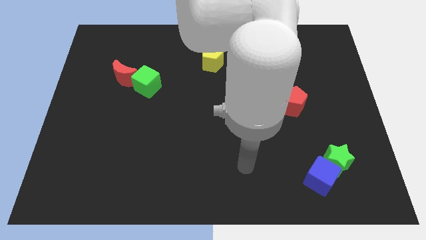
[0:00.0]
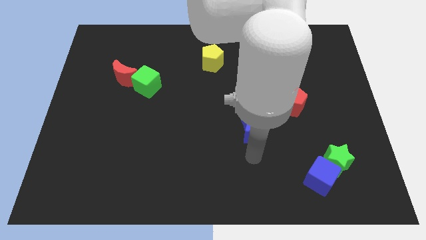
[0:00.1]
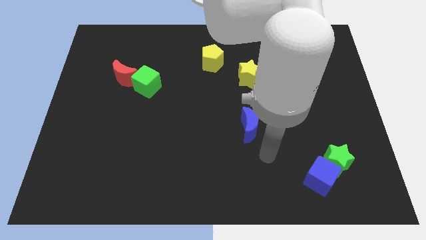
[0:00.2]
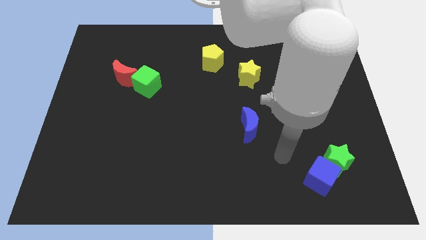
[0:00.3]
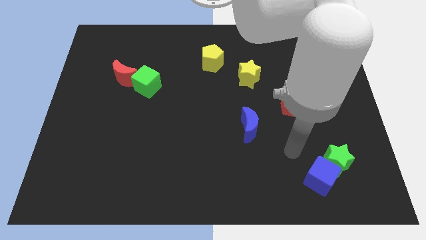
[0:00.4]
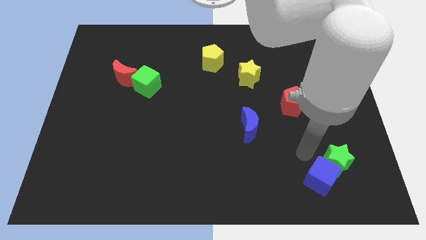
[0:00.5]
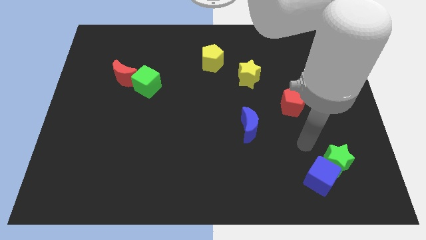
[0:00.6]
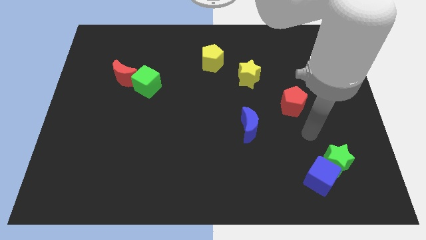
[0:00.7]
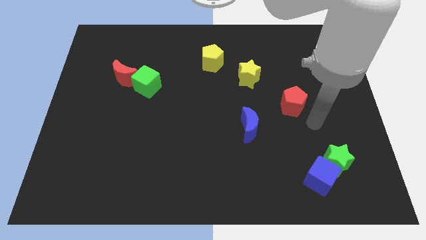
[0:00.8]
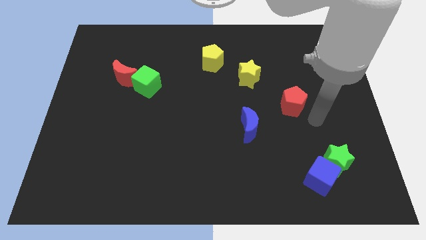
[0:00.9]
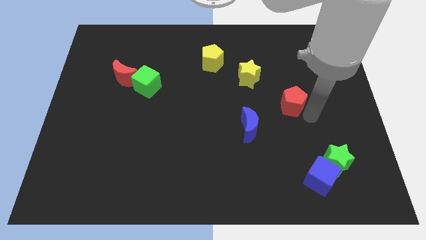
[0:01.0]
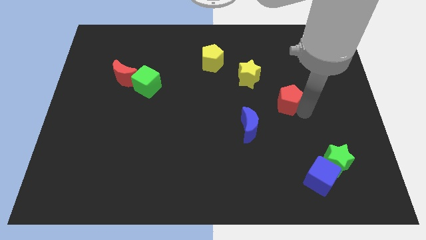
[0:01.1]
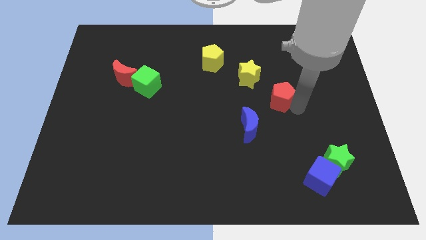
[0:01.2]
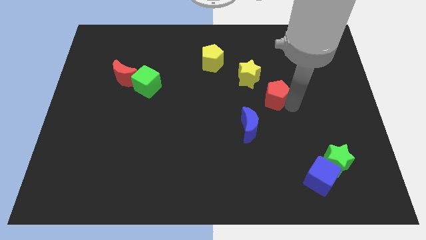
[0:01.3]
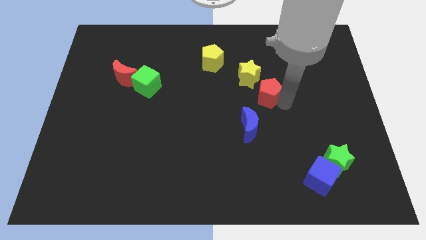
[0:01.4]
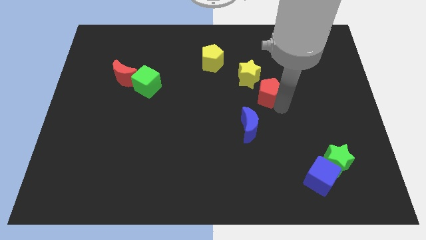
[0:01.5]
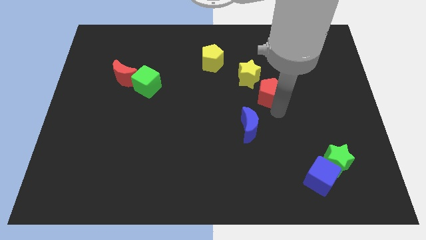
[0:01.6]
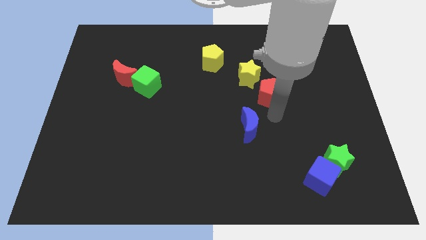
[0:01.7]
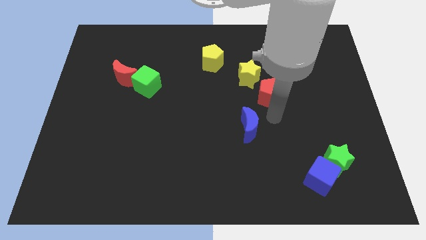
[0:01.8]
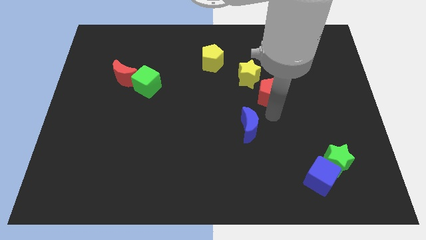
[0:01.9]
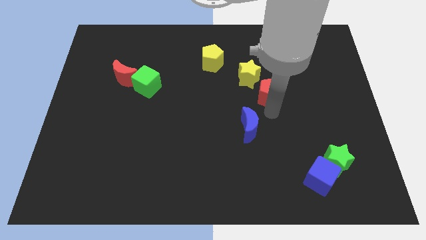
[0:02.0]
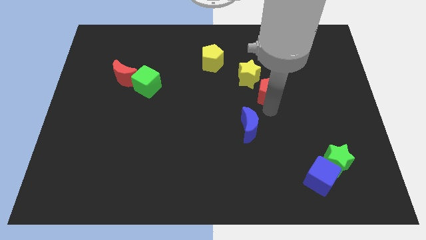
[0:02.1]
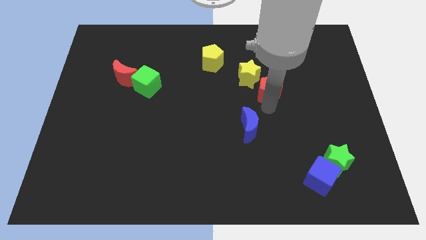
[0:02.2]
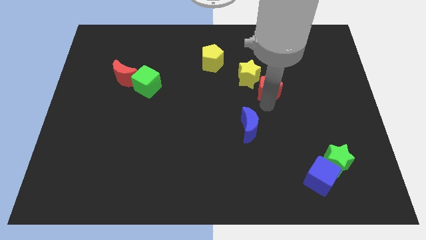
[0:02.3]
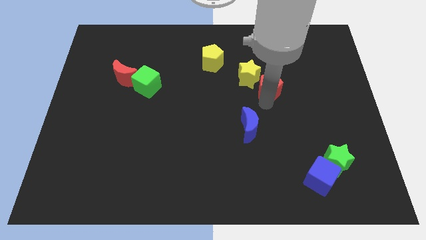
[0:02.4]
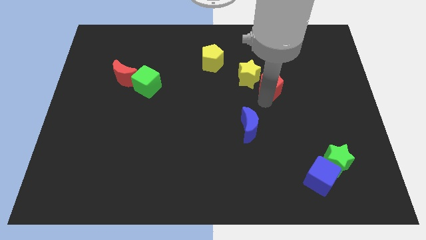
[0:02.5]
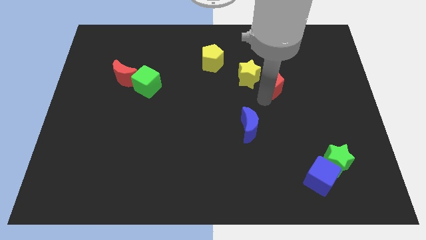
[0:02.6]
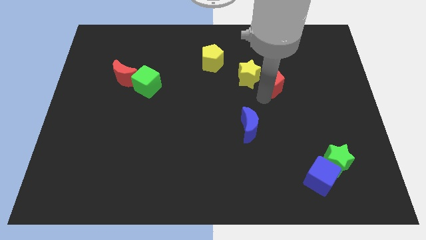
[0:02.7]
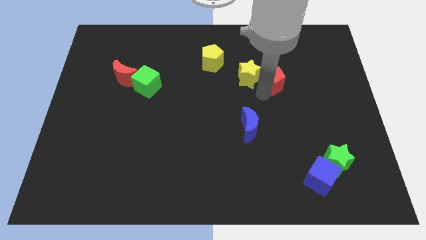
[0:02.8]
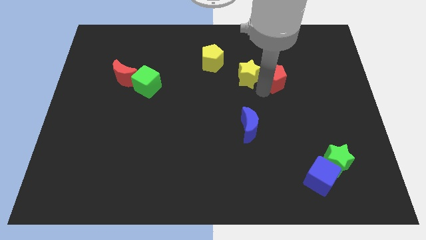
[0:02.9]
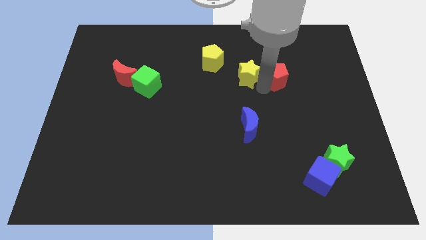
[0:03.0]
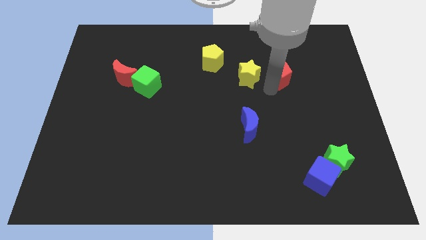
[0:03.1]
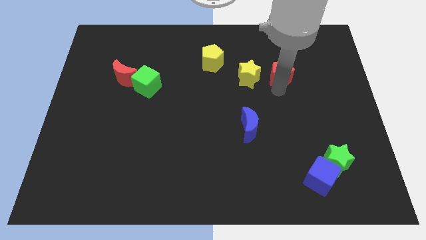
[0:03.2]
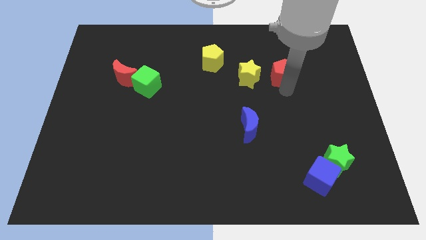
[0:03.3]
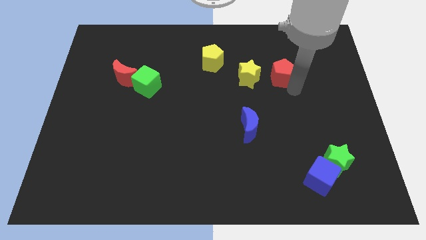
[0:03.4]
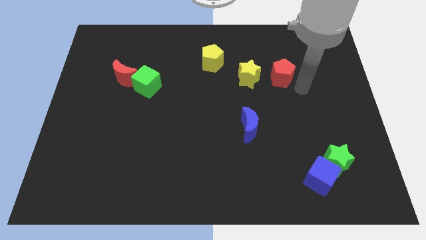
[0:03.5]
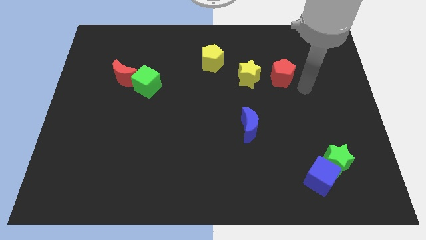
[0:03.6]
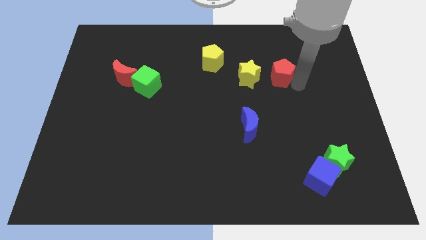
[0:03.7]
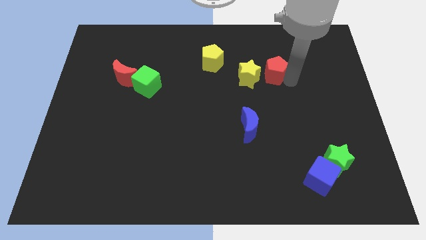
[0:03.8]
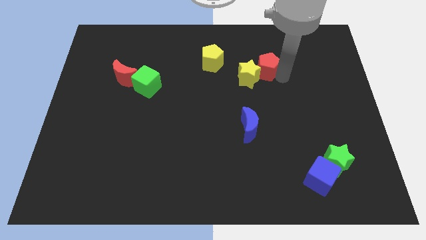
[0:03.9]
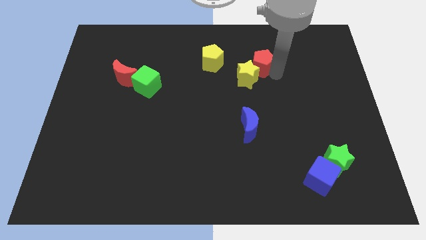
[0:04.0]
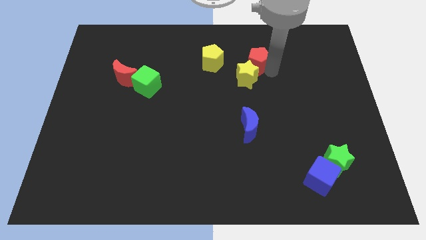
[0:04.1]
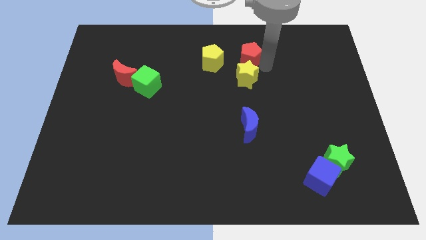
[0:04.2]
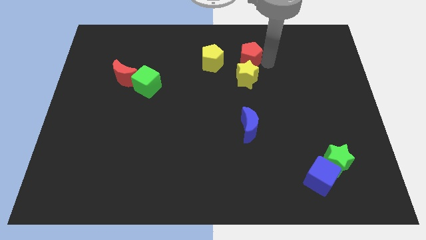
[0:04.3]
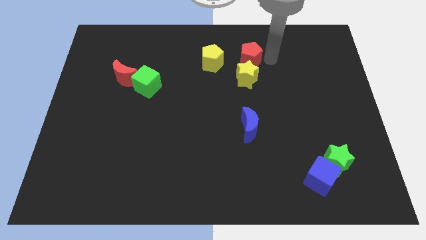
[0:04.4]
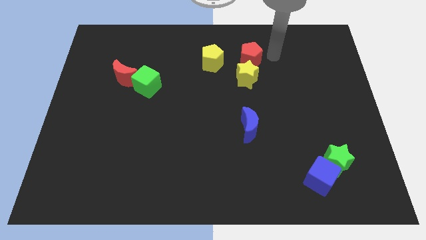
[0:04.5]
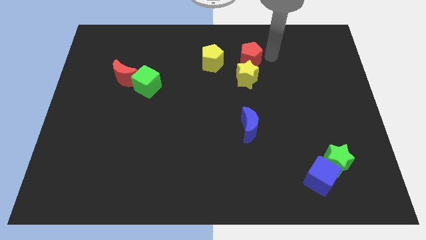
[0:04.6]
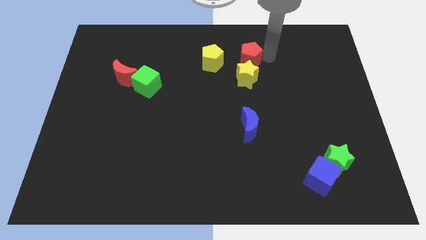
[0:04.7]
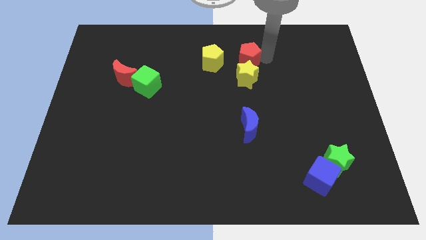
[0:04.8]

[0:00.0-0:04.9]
push the red pentagon to the top left side of the yellow star

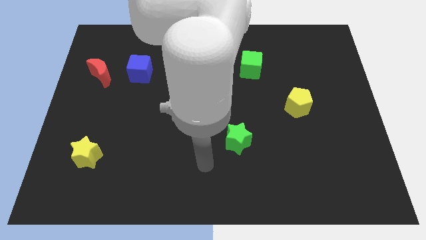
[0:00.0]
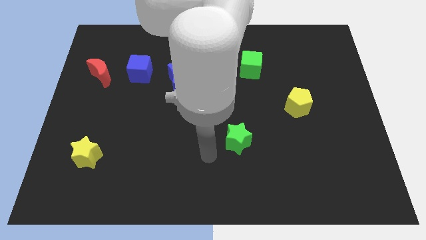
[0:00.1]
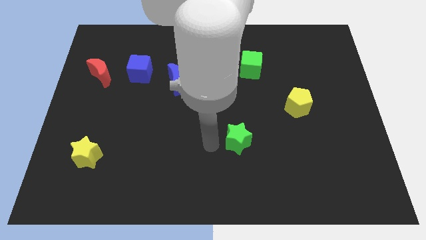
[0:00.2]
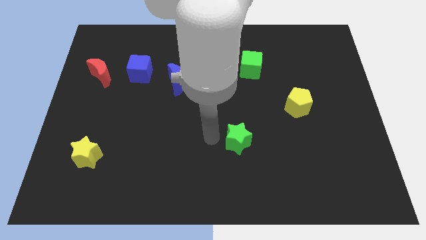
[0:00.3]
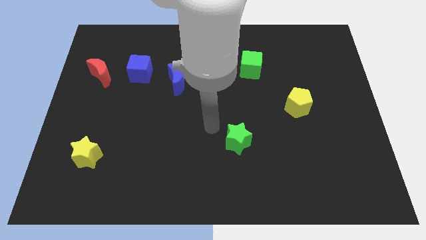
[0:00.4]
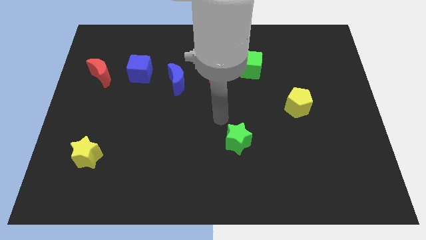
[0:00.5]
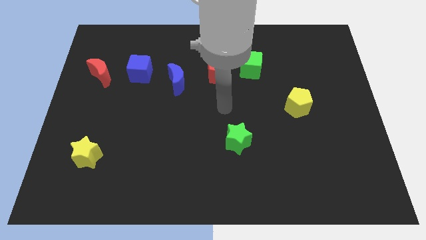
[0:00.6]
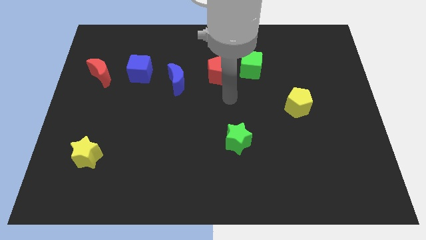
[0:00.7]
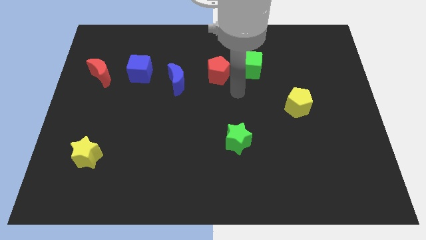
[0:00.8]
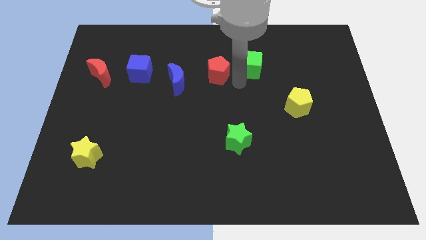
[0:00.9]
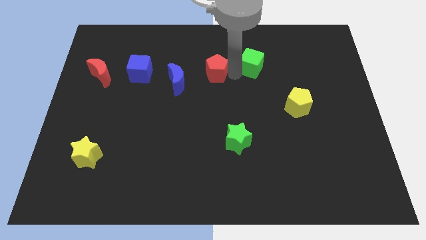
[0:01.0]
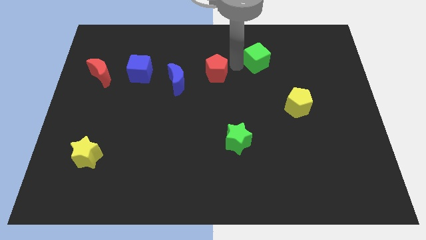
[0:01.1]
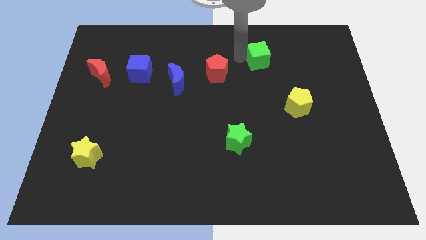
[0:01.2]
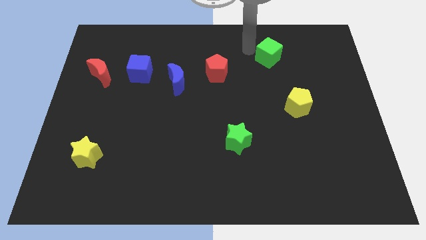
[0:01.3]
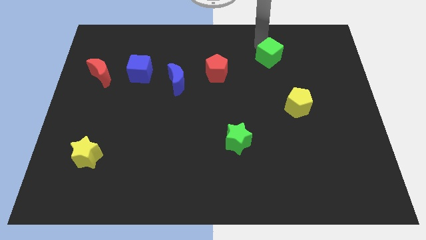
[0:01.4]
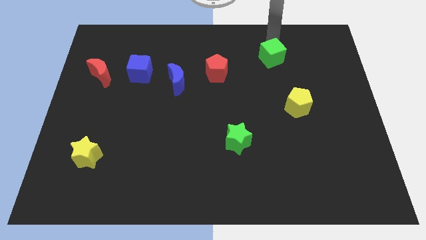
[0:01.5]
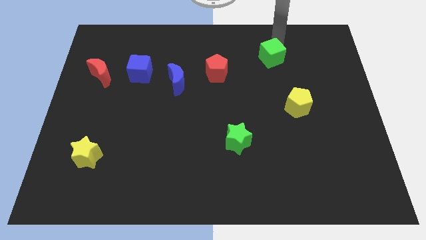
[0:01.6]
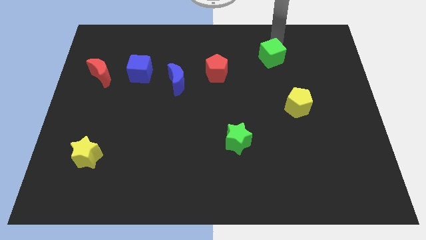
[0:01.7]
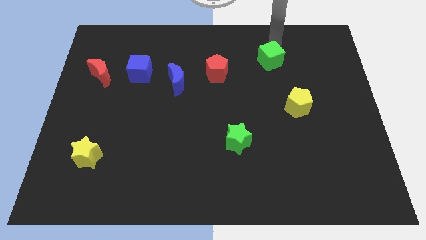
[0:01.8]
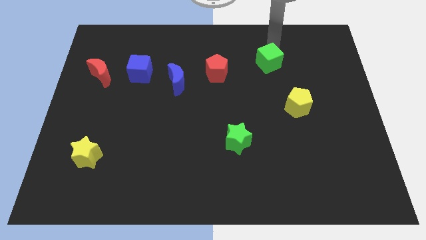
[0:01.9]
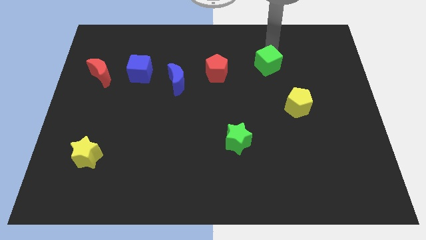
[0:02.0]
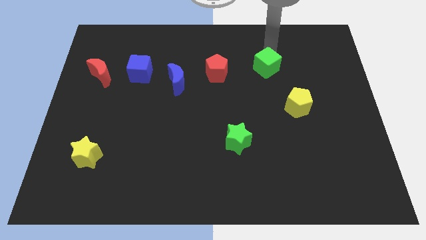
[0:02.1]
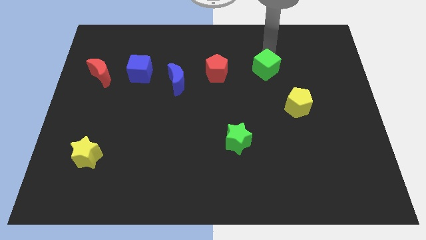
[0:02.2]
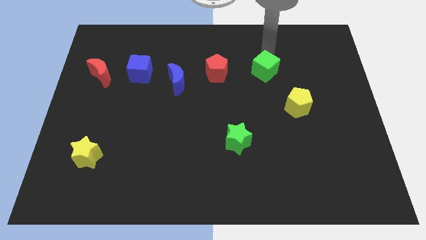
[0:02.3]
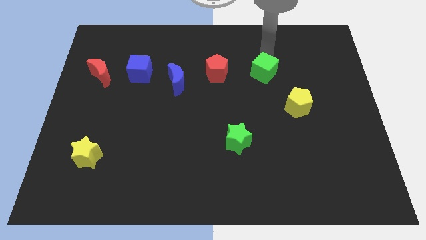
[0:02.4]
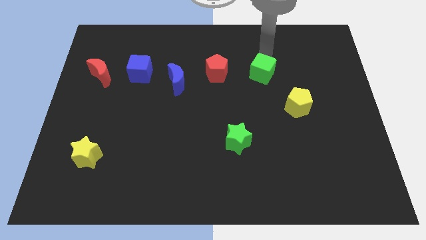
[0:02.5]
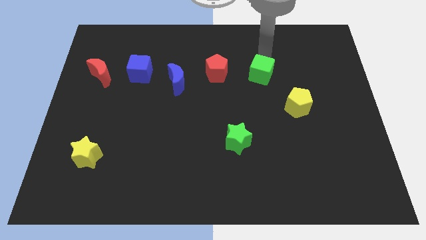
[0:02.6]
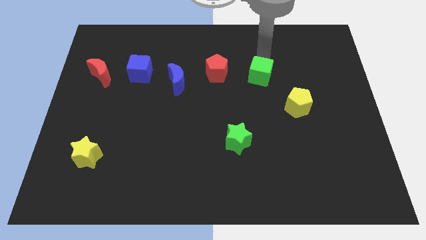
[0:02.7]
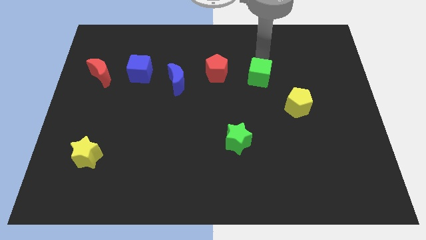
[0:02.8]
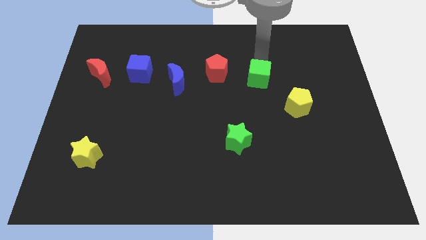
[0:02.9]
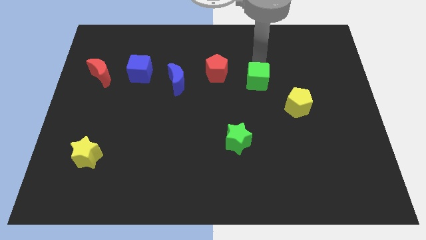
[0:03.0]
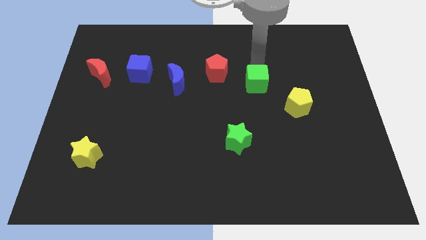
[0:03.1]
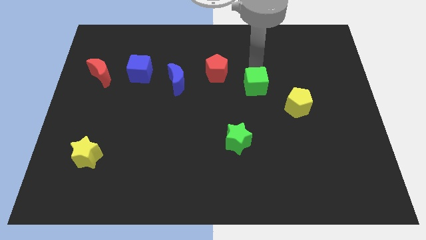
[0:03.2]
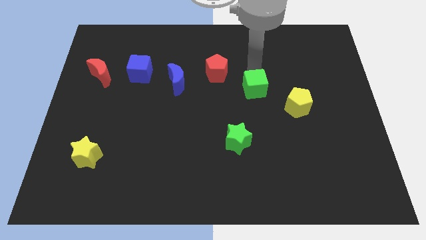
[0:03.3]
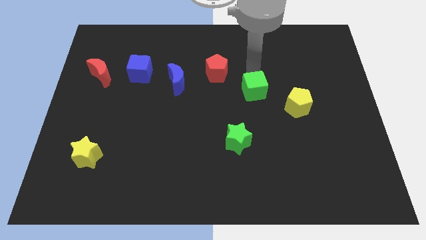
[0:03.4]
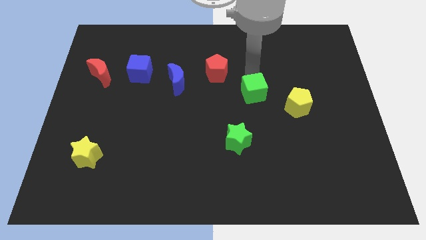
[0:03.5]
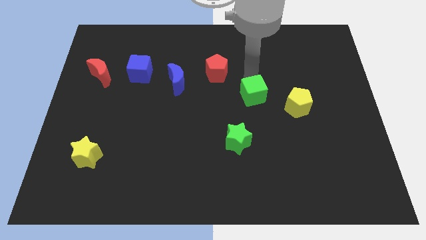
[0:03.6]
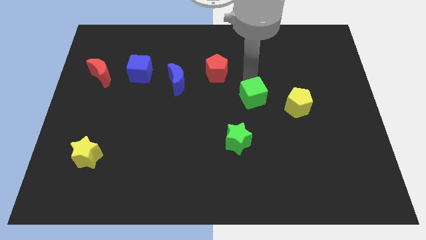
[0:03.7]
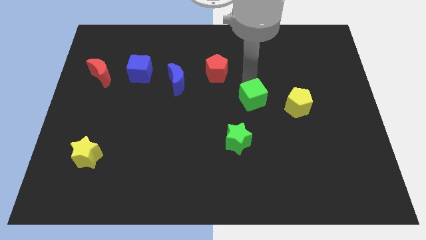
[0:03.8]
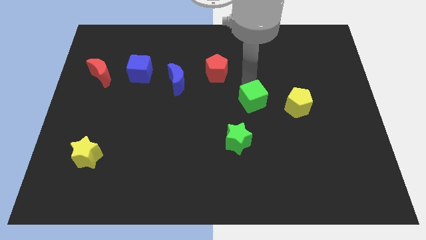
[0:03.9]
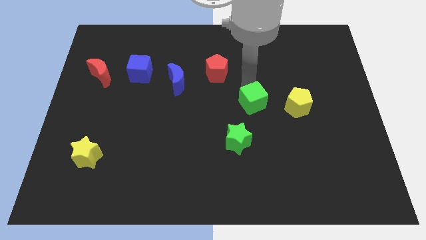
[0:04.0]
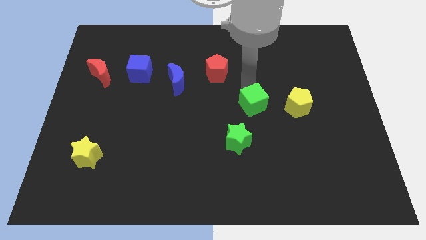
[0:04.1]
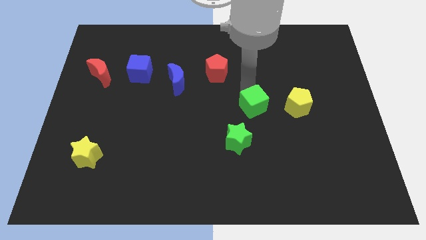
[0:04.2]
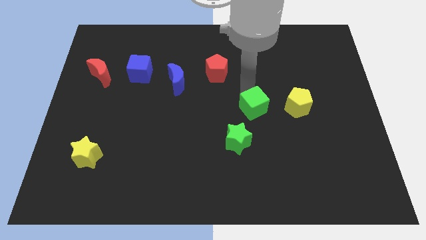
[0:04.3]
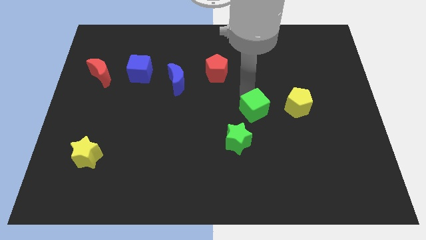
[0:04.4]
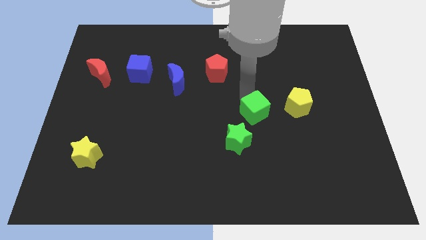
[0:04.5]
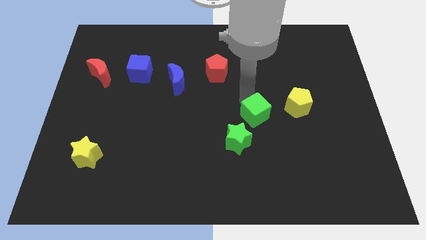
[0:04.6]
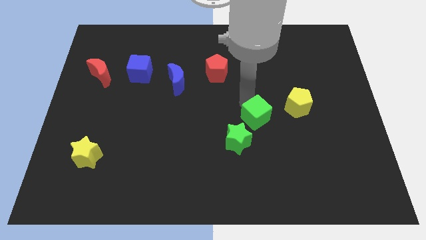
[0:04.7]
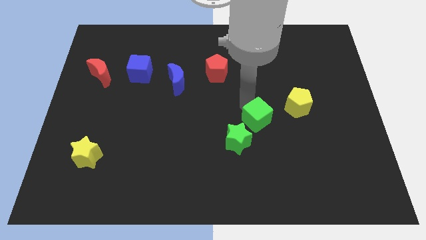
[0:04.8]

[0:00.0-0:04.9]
slide the green cube to the bottom left side of the yellow pentagon
